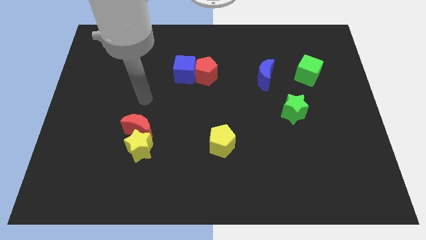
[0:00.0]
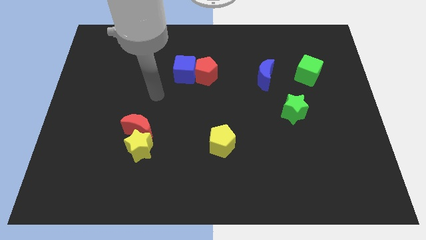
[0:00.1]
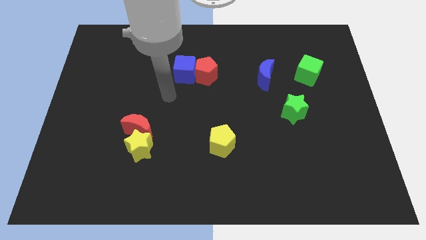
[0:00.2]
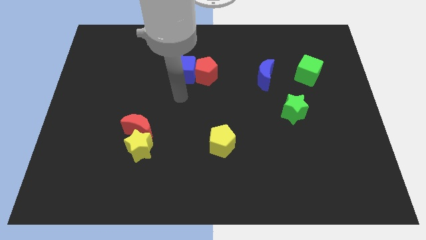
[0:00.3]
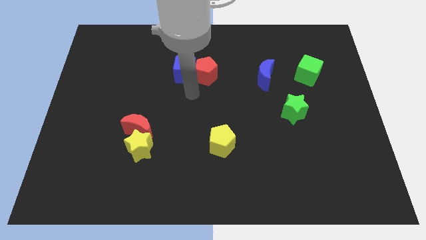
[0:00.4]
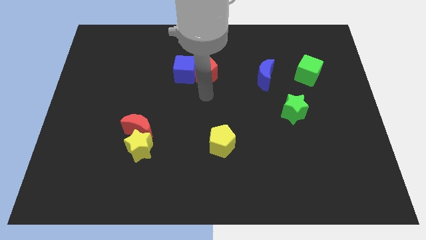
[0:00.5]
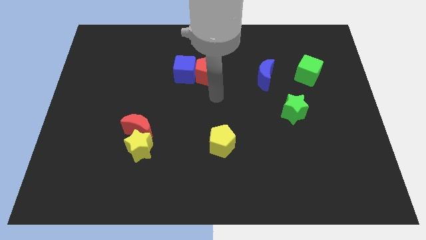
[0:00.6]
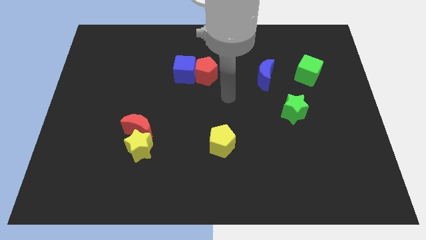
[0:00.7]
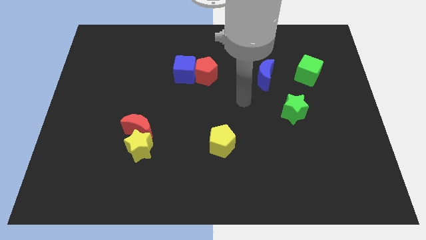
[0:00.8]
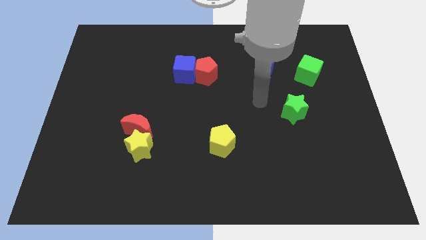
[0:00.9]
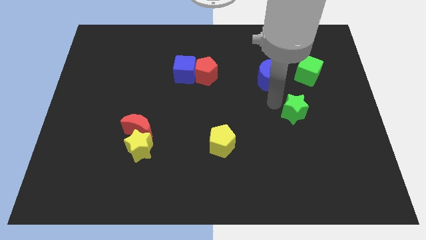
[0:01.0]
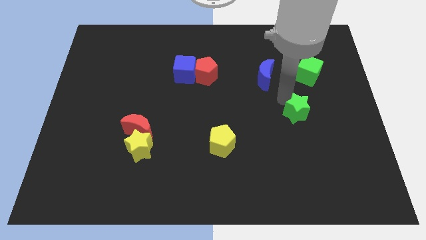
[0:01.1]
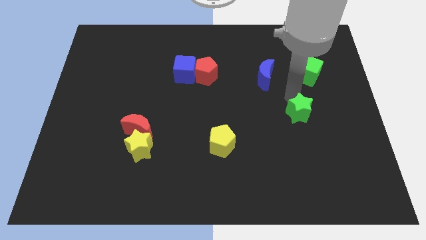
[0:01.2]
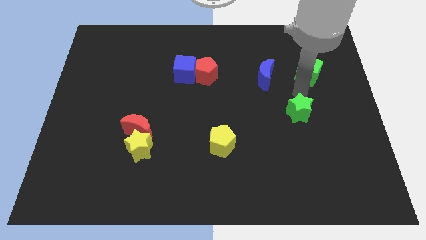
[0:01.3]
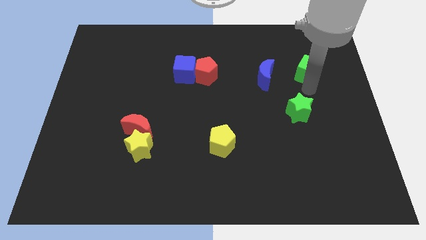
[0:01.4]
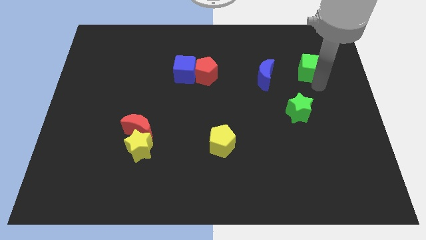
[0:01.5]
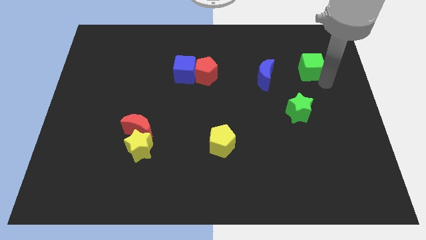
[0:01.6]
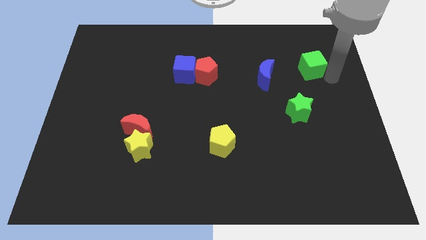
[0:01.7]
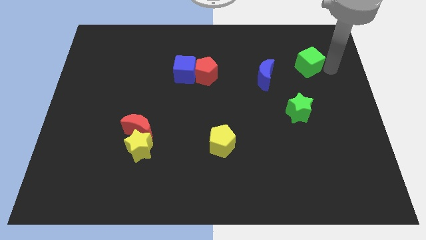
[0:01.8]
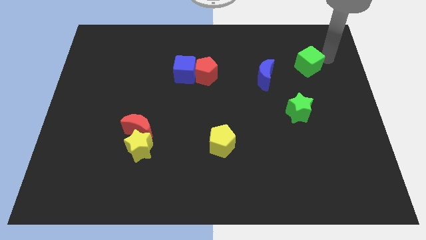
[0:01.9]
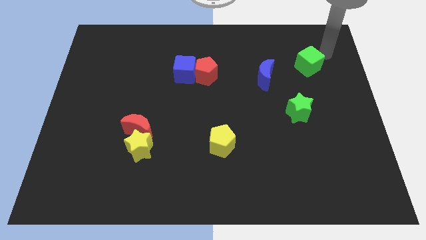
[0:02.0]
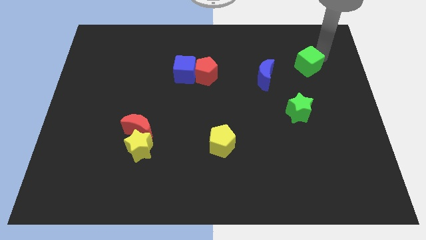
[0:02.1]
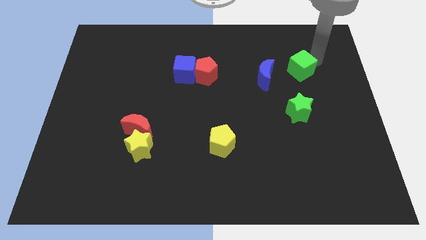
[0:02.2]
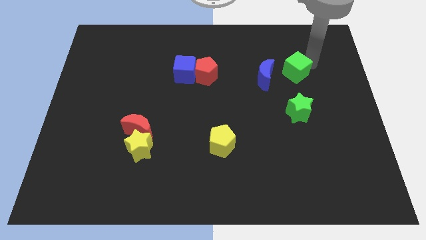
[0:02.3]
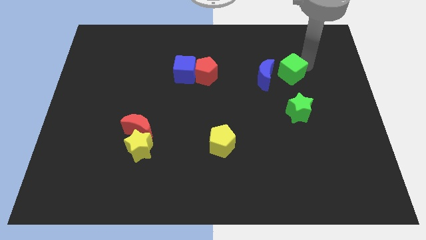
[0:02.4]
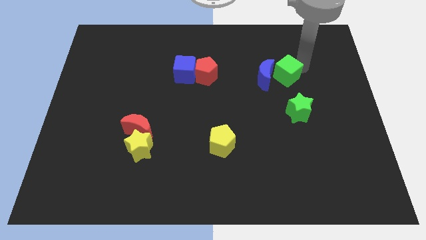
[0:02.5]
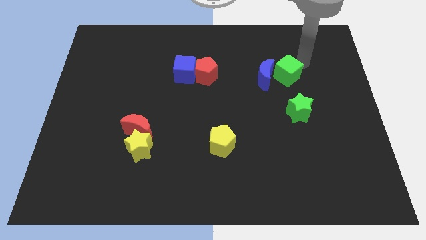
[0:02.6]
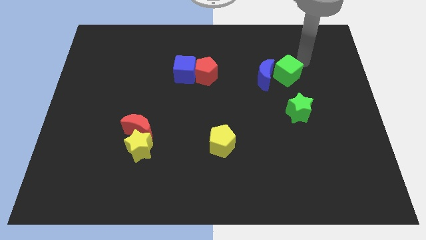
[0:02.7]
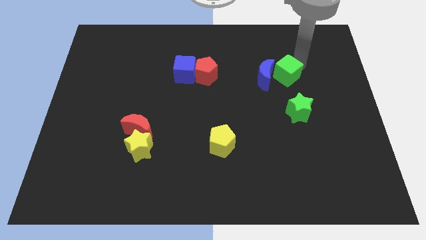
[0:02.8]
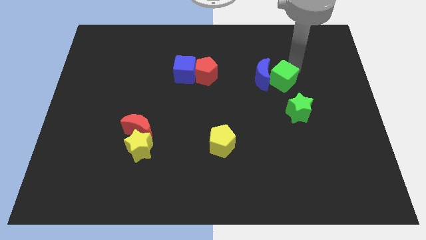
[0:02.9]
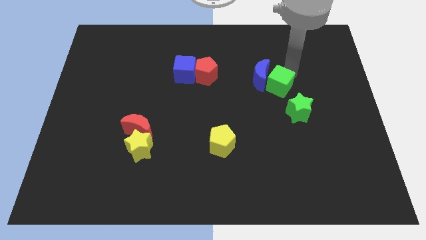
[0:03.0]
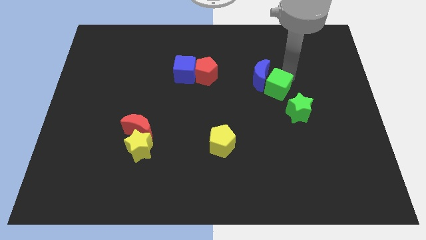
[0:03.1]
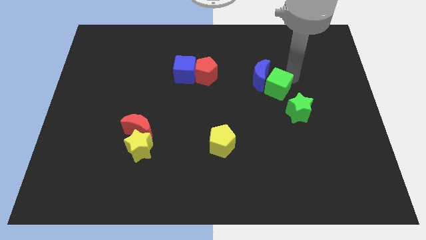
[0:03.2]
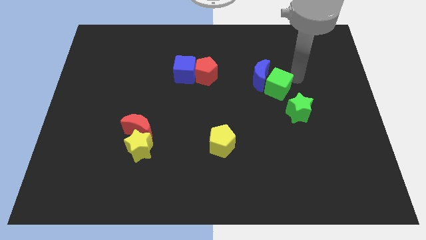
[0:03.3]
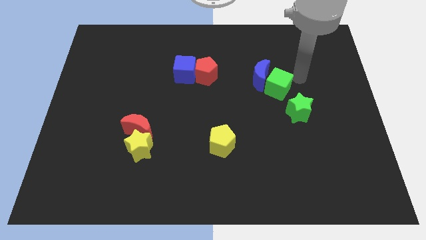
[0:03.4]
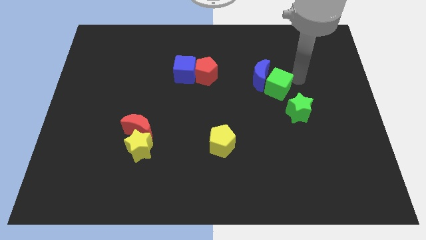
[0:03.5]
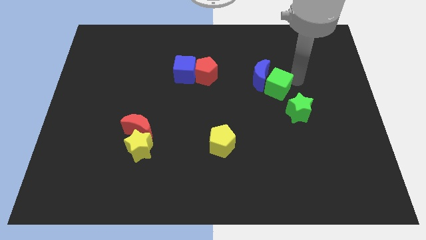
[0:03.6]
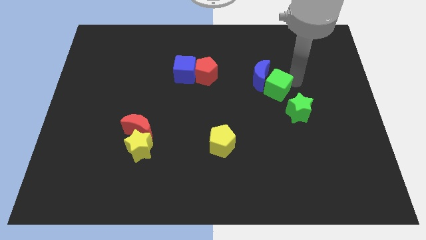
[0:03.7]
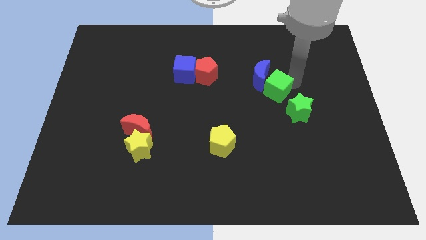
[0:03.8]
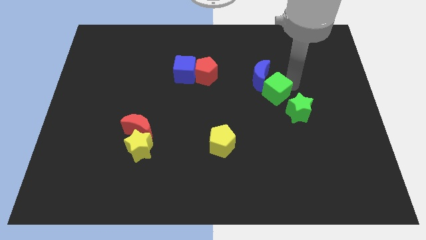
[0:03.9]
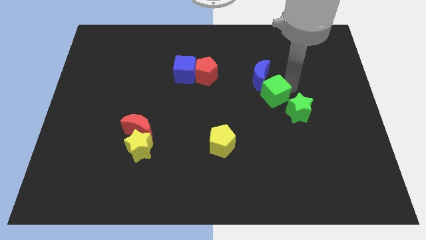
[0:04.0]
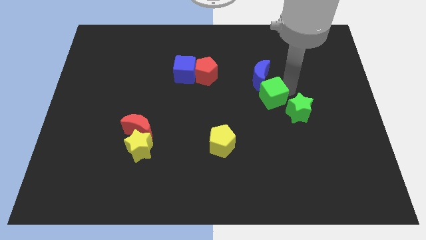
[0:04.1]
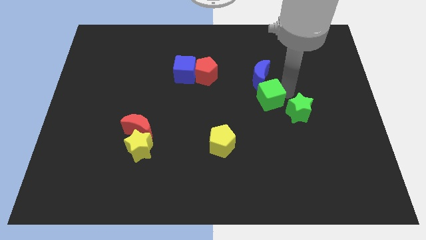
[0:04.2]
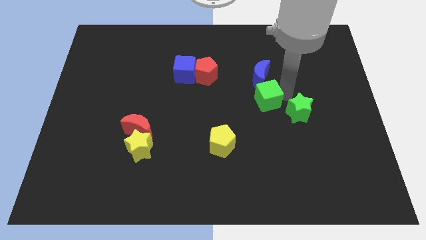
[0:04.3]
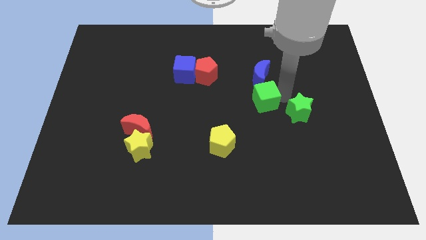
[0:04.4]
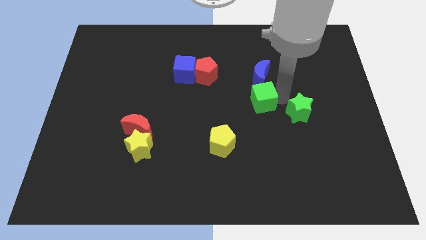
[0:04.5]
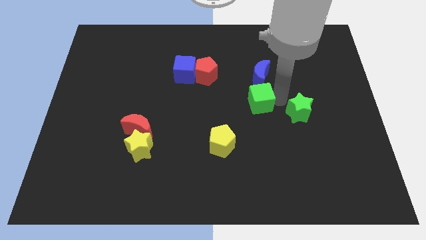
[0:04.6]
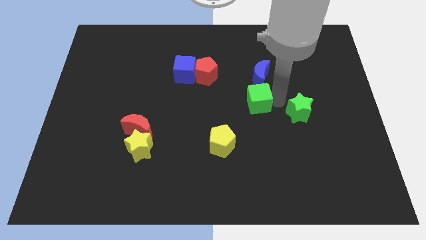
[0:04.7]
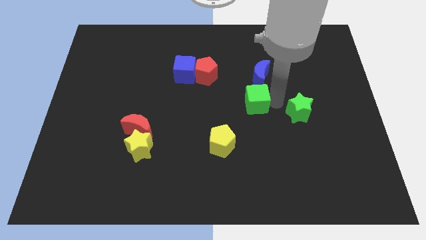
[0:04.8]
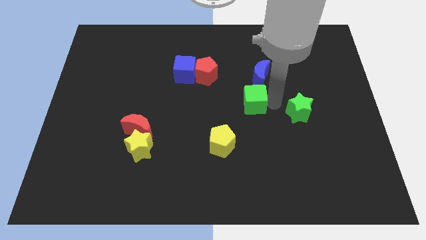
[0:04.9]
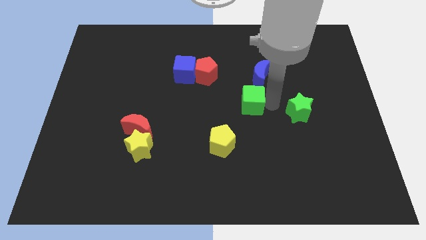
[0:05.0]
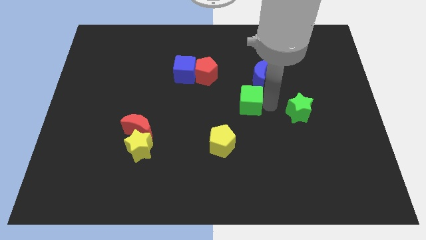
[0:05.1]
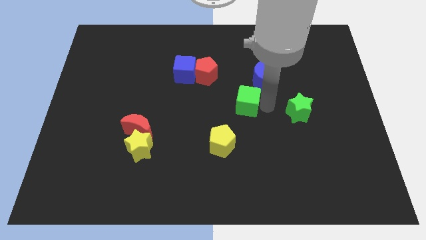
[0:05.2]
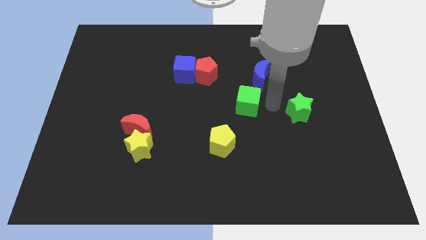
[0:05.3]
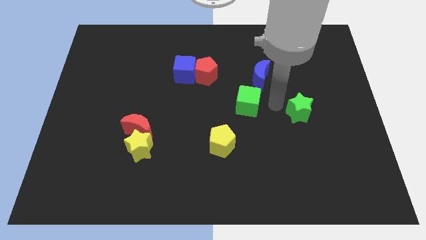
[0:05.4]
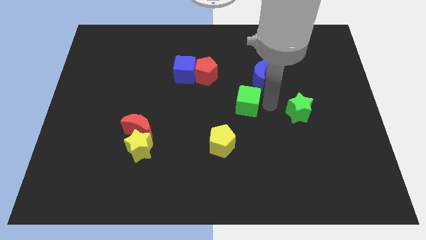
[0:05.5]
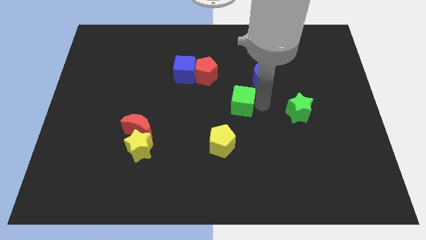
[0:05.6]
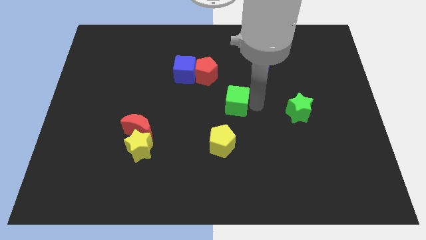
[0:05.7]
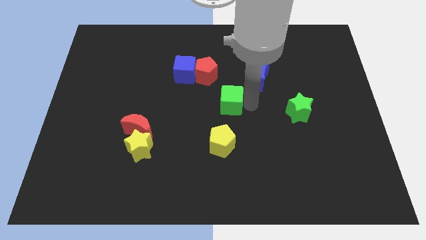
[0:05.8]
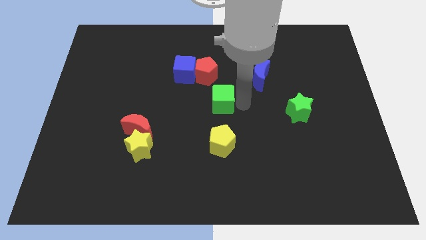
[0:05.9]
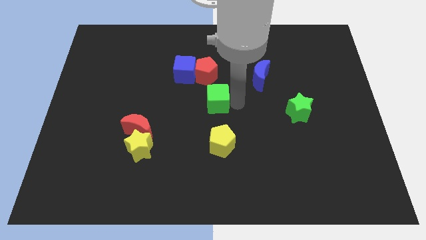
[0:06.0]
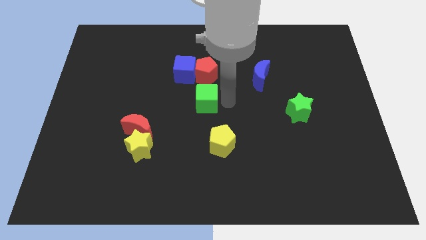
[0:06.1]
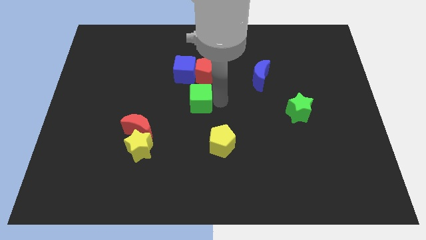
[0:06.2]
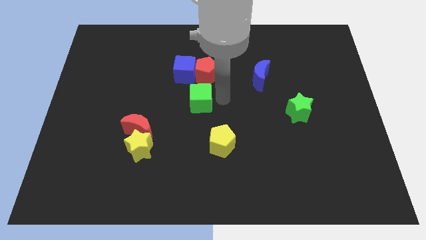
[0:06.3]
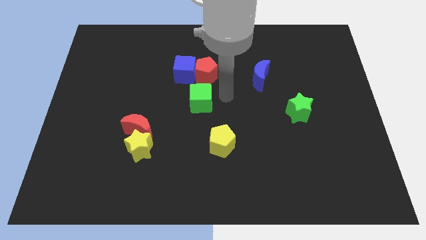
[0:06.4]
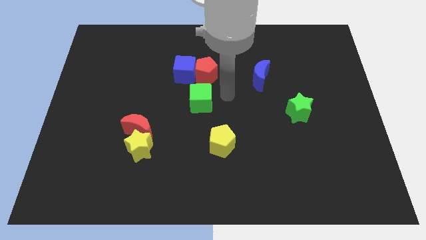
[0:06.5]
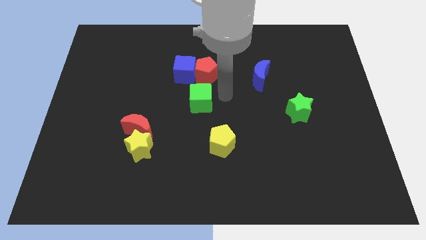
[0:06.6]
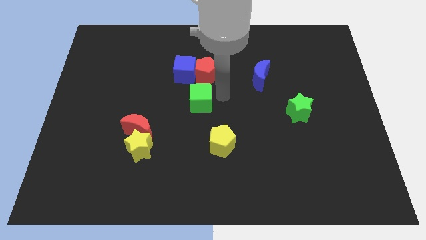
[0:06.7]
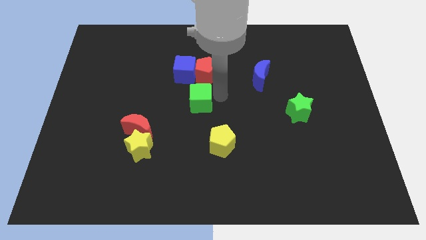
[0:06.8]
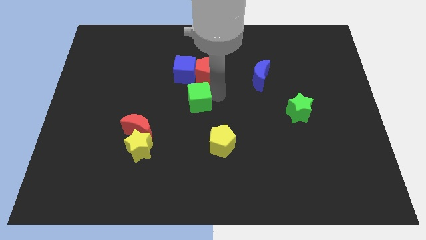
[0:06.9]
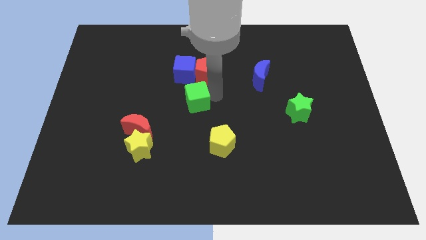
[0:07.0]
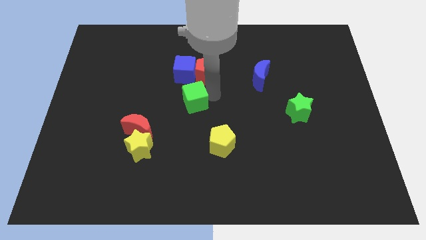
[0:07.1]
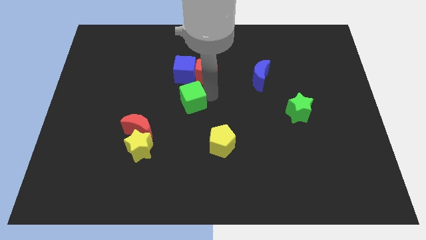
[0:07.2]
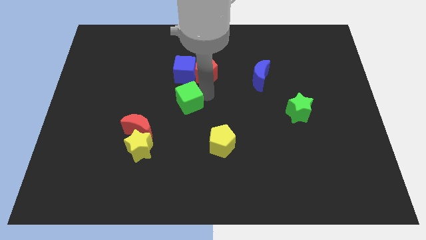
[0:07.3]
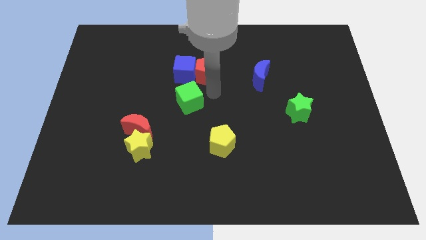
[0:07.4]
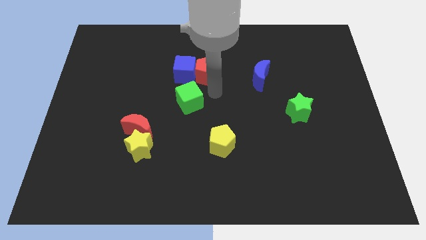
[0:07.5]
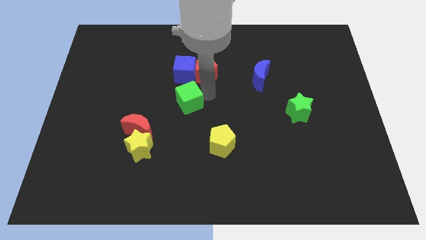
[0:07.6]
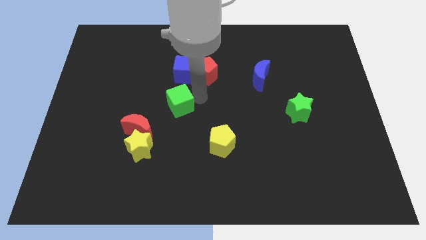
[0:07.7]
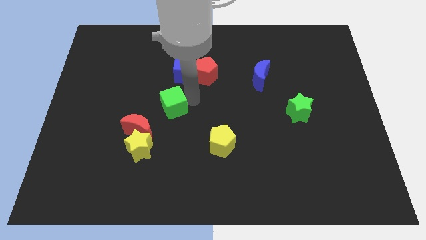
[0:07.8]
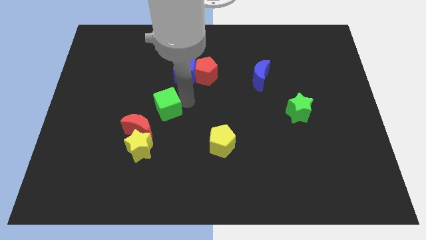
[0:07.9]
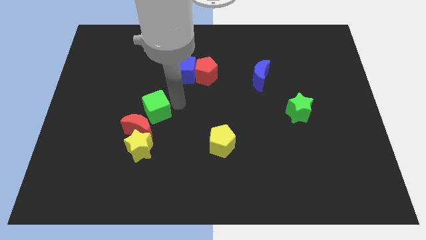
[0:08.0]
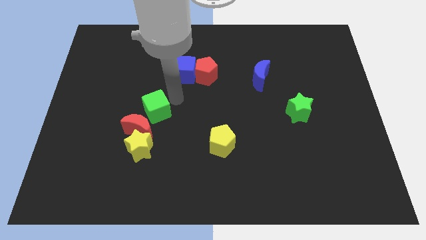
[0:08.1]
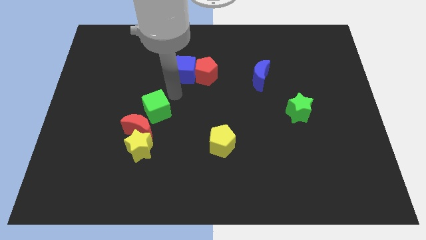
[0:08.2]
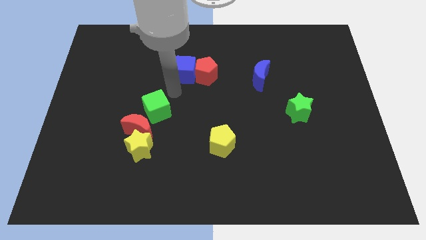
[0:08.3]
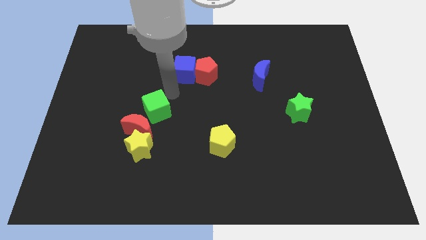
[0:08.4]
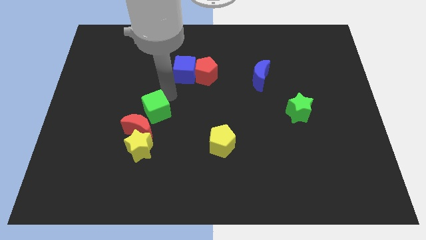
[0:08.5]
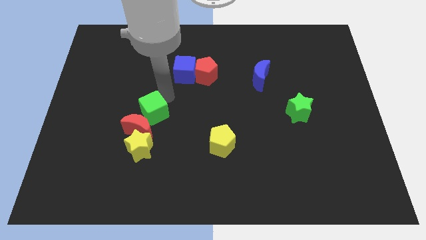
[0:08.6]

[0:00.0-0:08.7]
push the green cube towards the red moon
